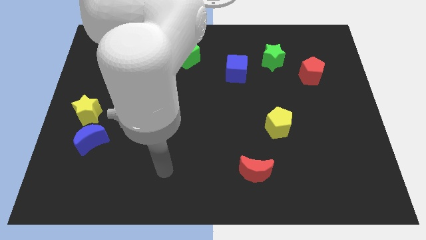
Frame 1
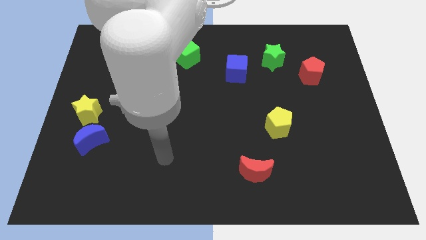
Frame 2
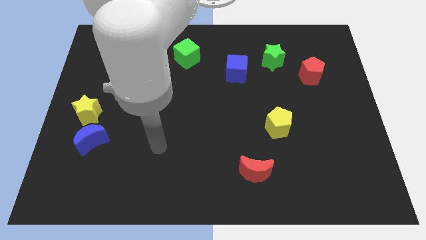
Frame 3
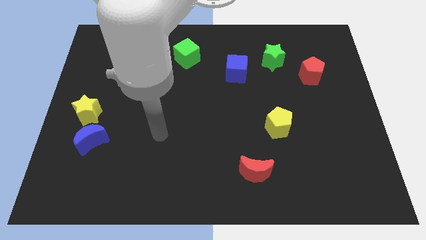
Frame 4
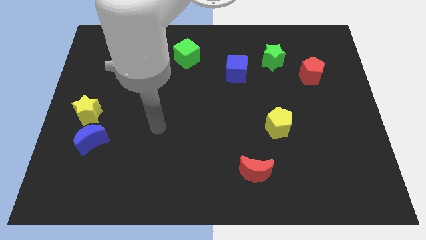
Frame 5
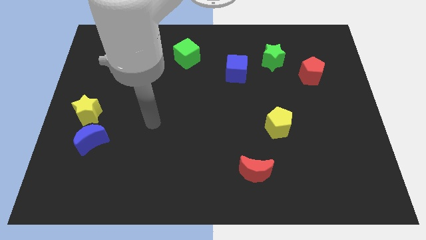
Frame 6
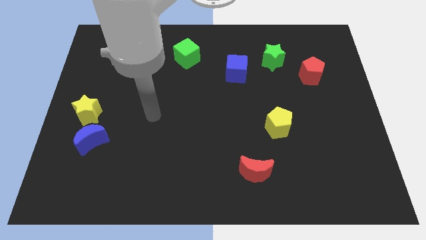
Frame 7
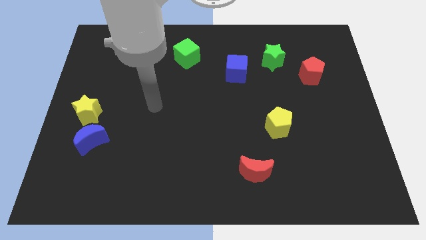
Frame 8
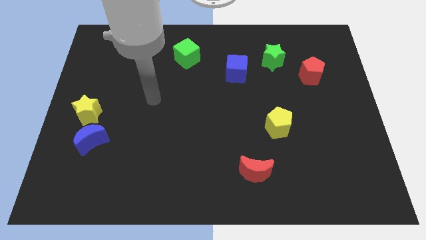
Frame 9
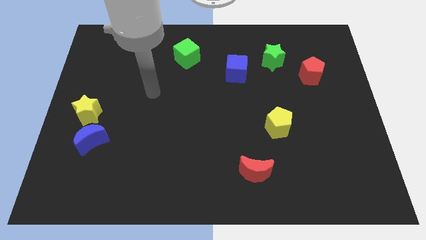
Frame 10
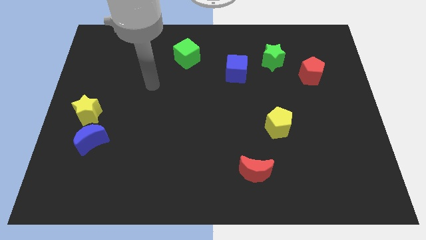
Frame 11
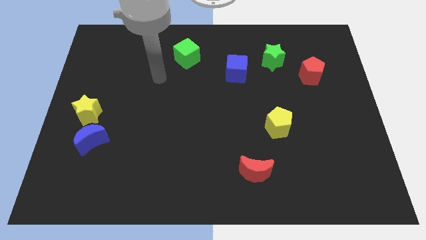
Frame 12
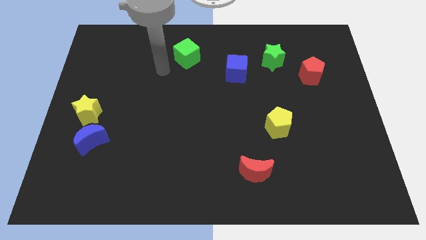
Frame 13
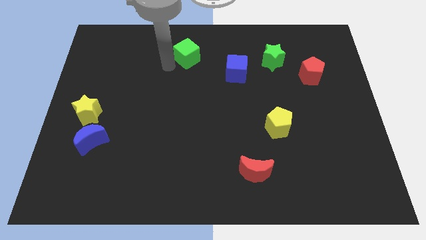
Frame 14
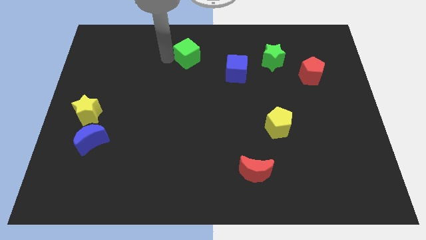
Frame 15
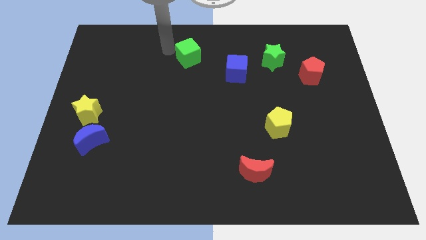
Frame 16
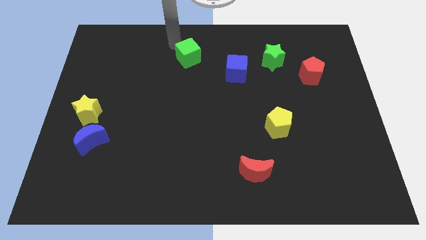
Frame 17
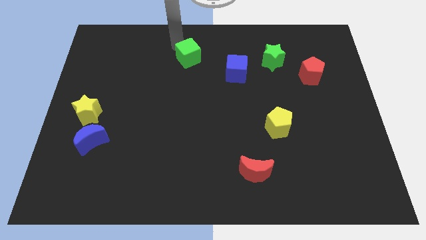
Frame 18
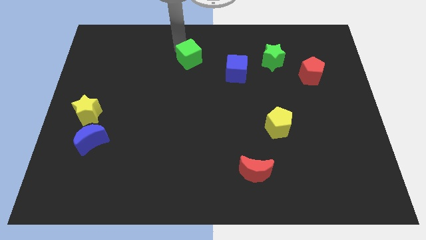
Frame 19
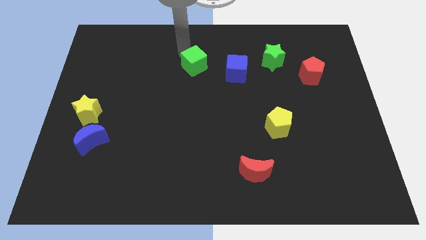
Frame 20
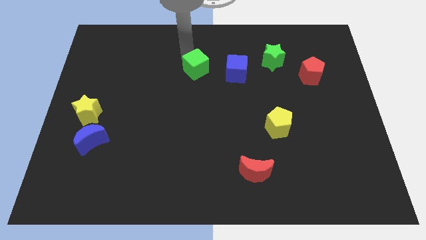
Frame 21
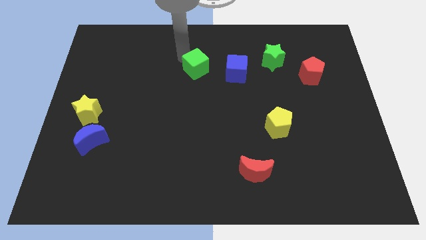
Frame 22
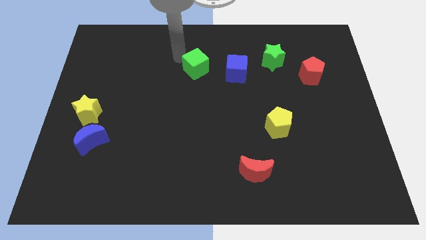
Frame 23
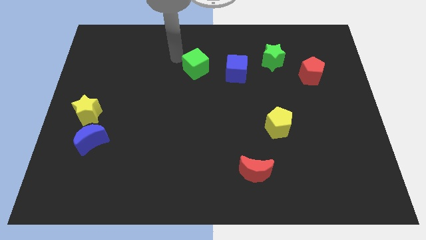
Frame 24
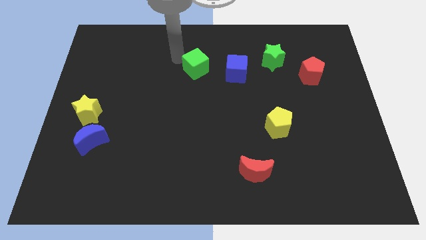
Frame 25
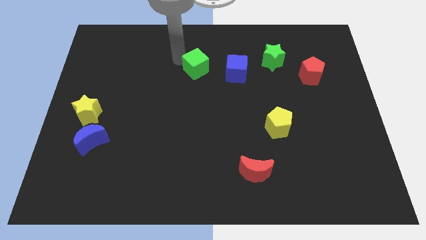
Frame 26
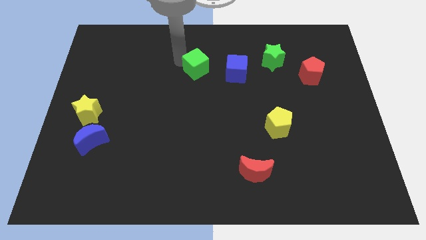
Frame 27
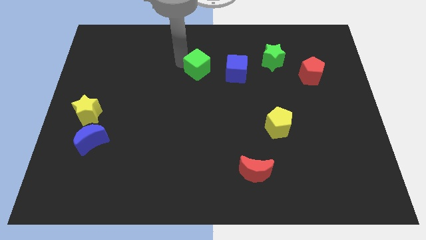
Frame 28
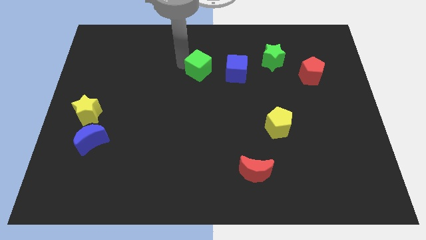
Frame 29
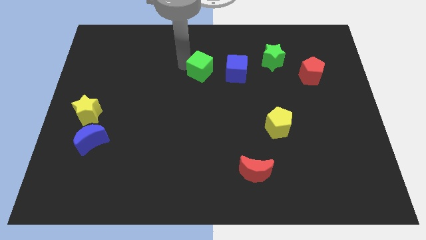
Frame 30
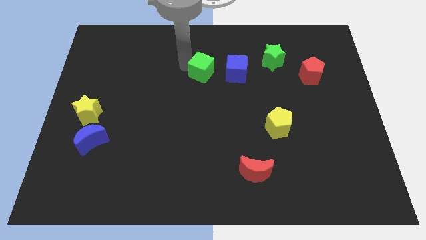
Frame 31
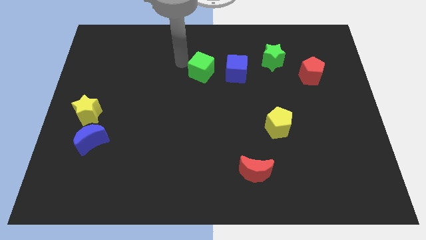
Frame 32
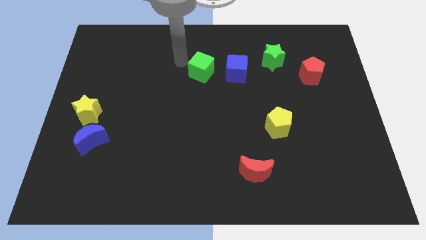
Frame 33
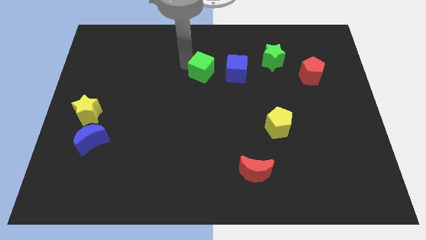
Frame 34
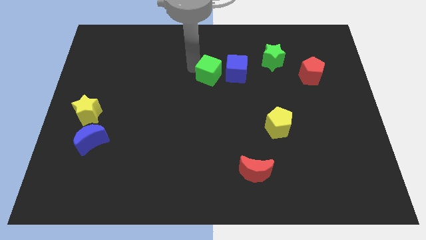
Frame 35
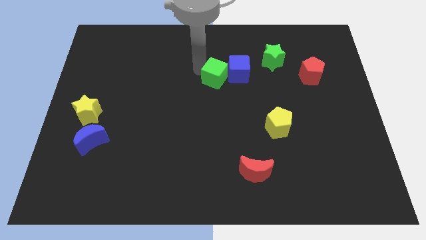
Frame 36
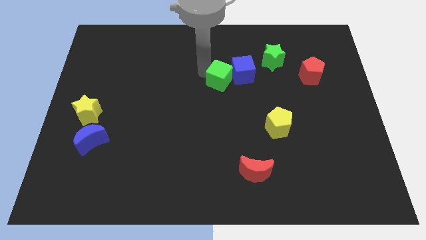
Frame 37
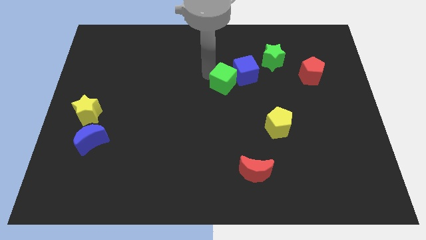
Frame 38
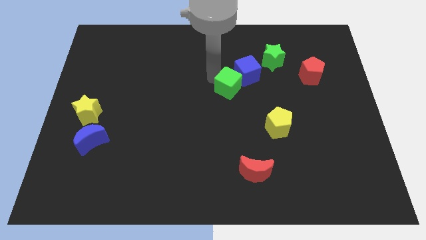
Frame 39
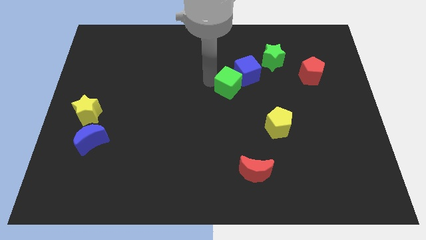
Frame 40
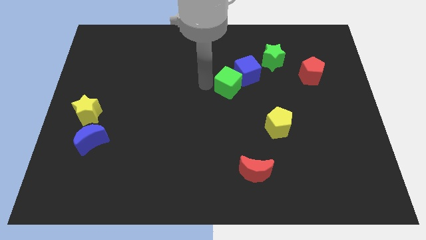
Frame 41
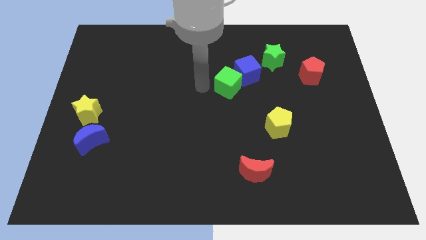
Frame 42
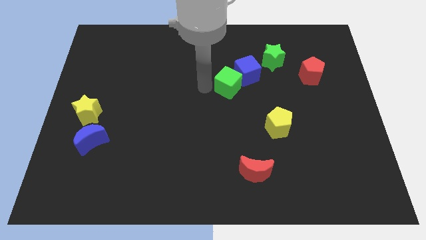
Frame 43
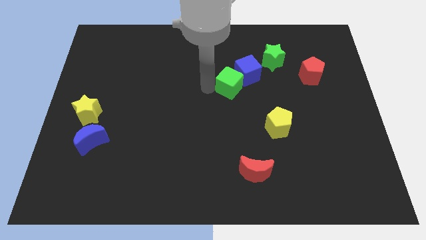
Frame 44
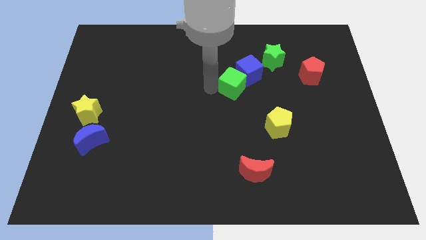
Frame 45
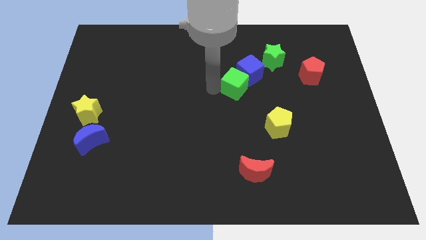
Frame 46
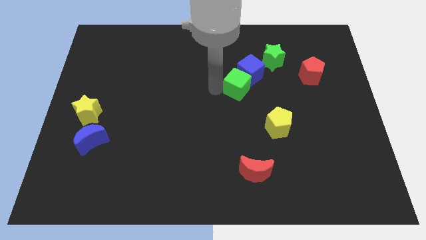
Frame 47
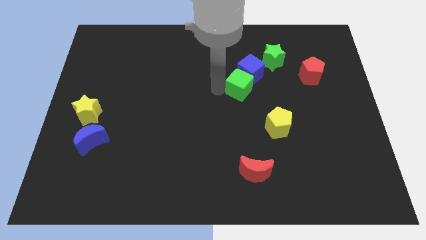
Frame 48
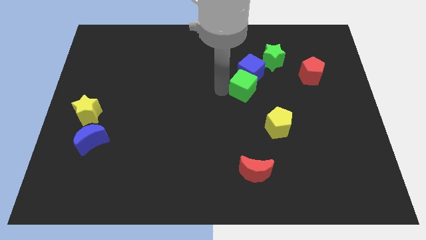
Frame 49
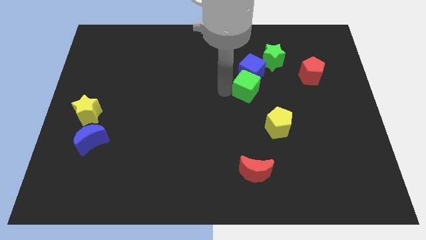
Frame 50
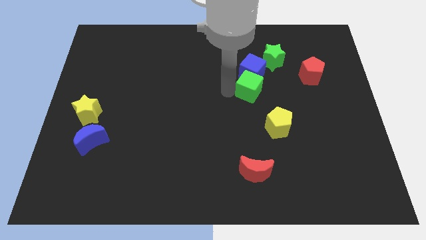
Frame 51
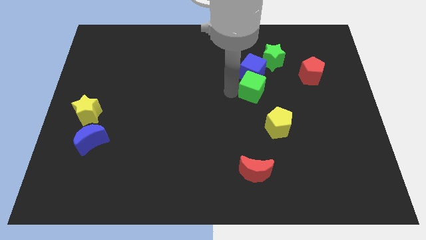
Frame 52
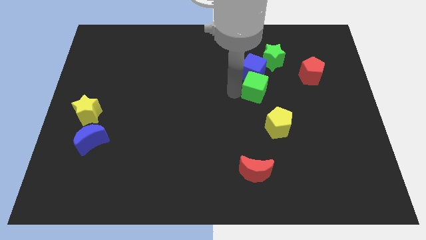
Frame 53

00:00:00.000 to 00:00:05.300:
move the green cube above the yellow pentagon

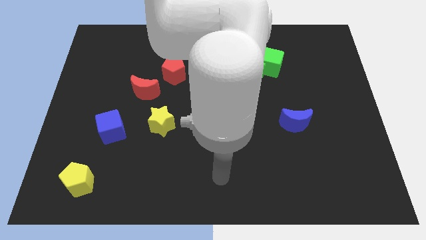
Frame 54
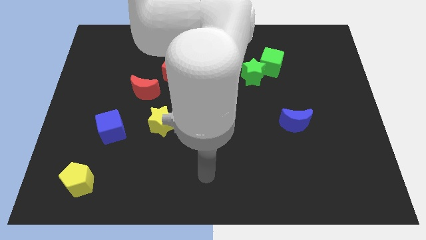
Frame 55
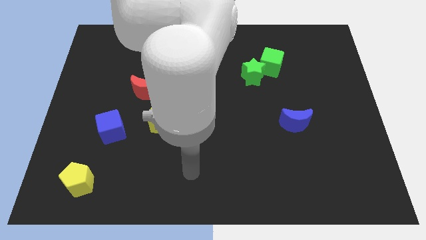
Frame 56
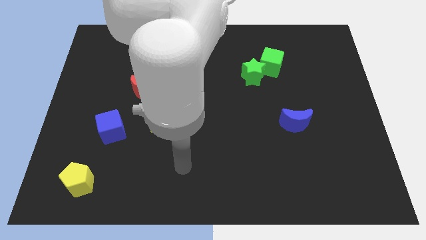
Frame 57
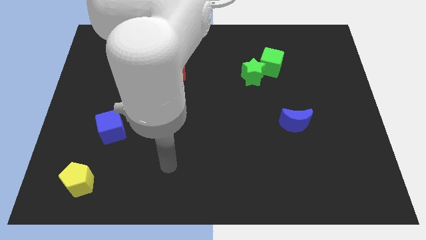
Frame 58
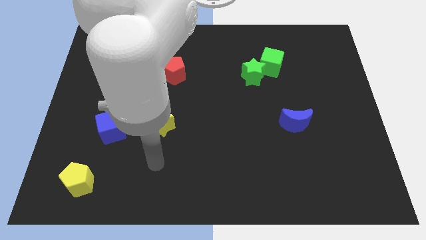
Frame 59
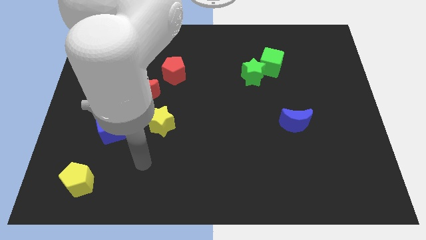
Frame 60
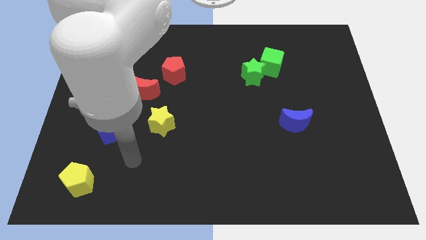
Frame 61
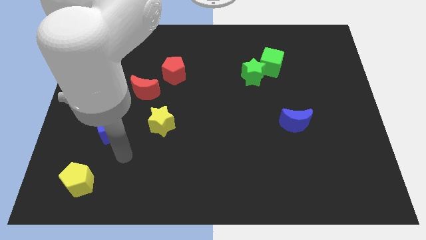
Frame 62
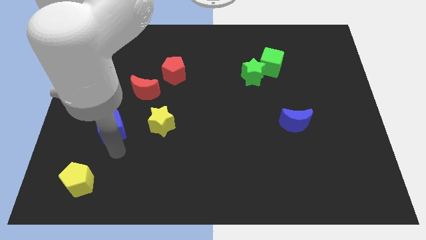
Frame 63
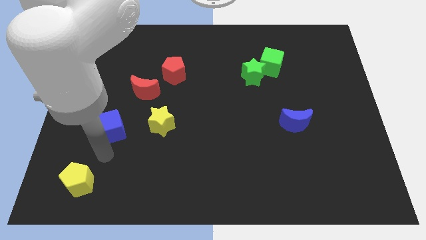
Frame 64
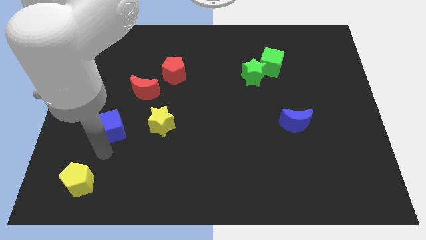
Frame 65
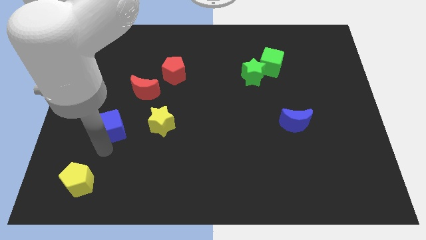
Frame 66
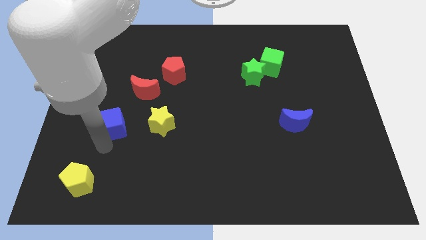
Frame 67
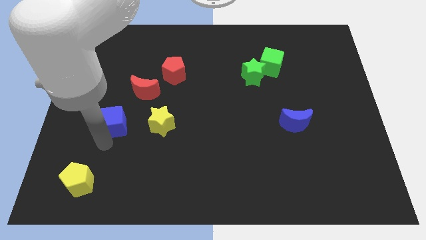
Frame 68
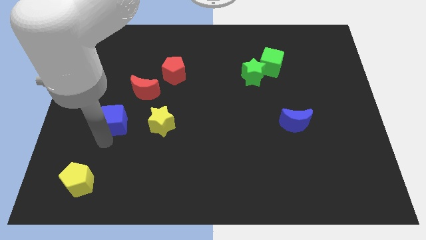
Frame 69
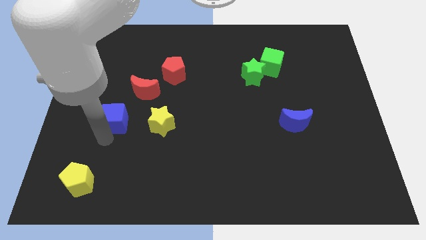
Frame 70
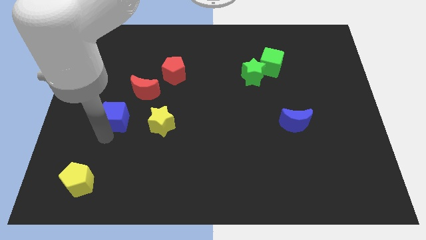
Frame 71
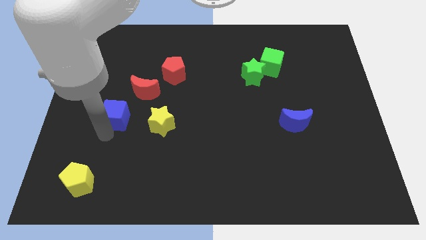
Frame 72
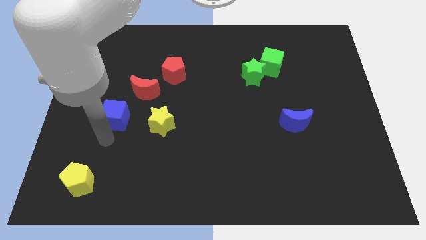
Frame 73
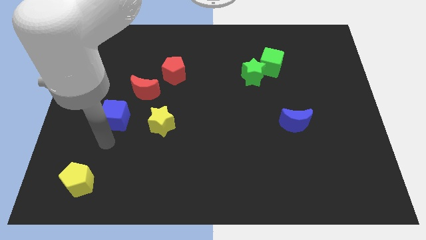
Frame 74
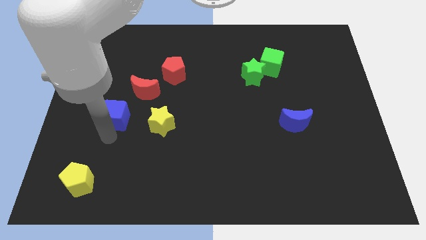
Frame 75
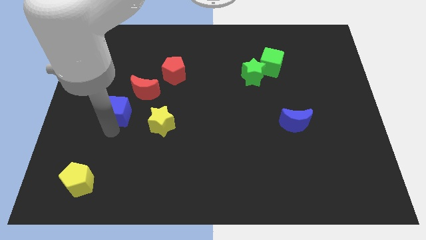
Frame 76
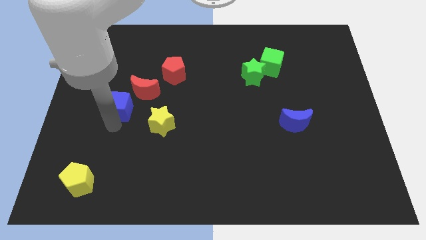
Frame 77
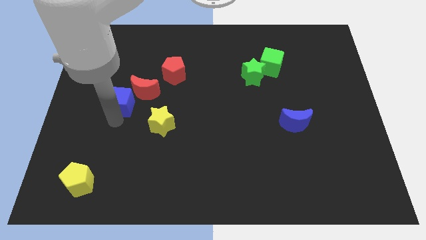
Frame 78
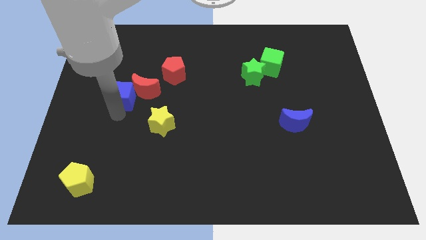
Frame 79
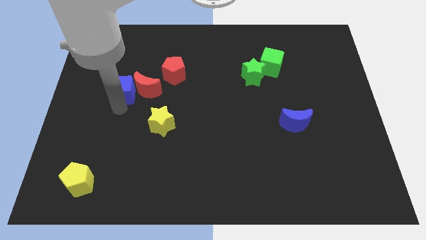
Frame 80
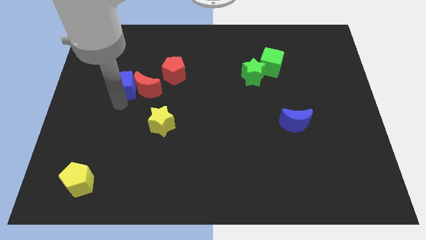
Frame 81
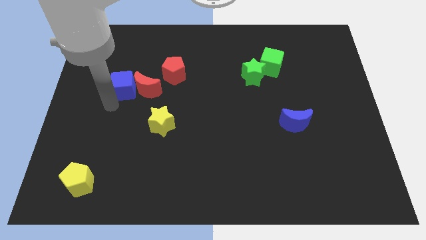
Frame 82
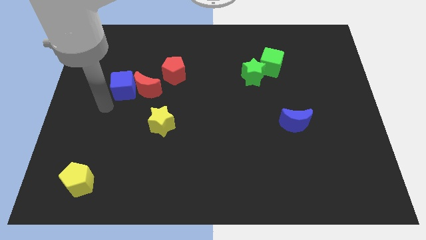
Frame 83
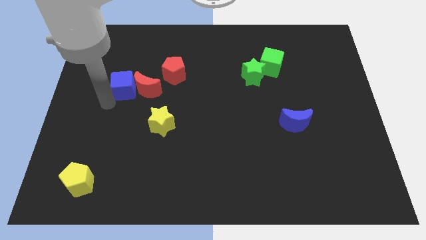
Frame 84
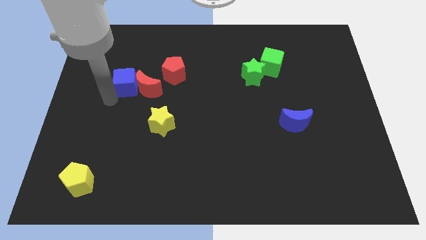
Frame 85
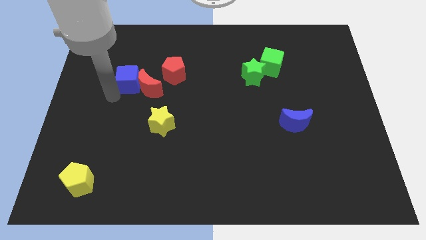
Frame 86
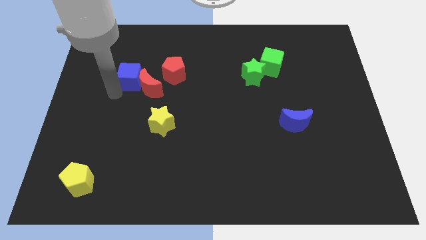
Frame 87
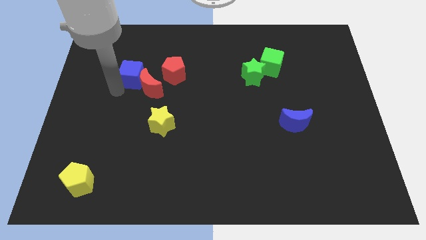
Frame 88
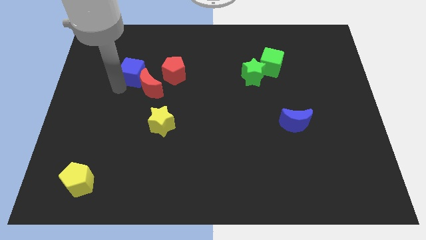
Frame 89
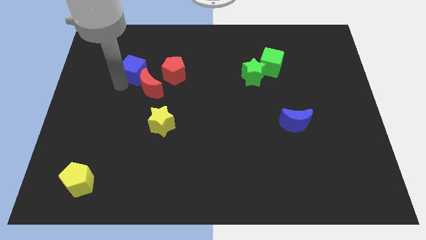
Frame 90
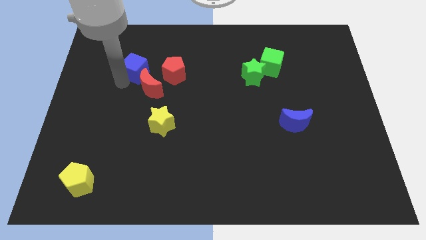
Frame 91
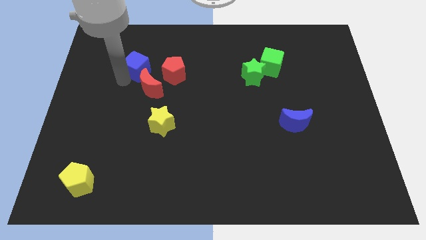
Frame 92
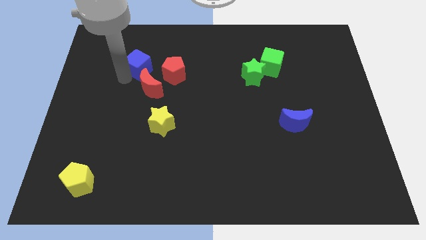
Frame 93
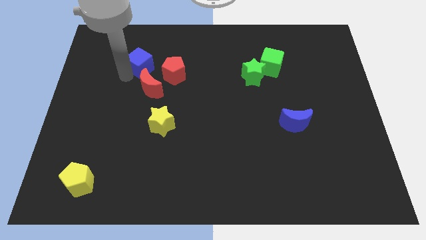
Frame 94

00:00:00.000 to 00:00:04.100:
put the blue cube to the top left side of the red pentagon
